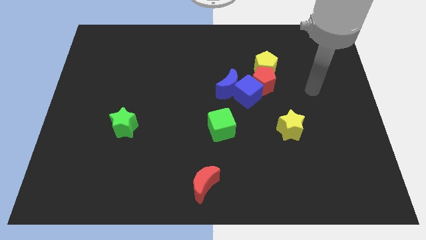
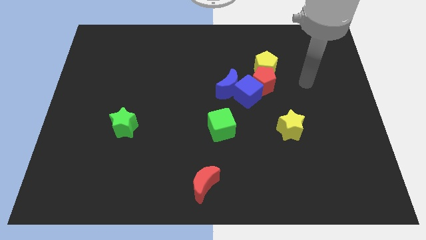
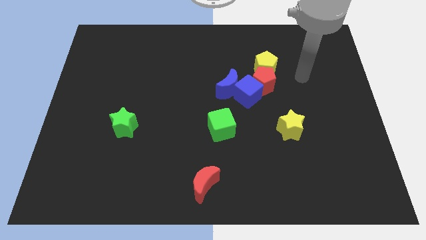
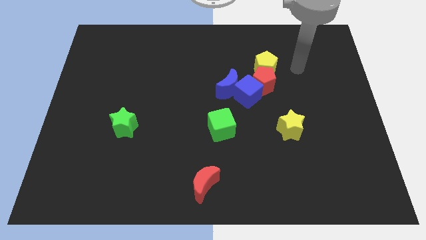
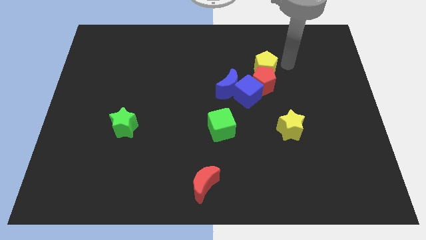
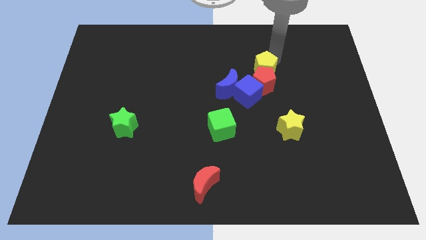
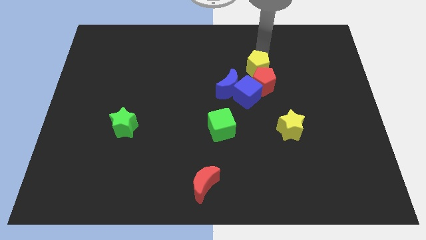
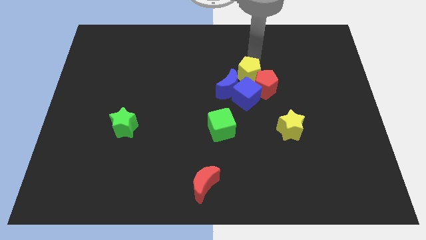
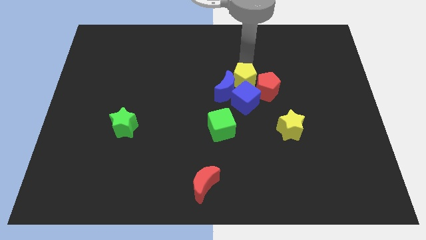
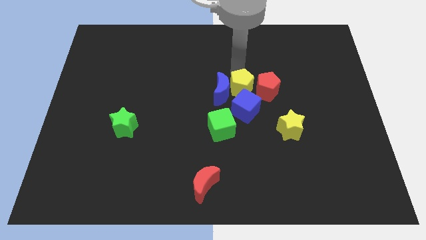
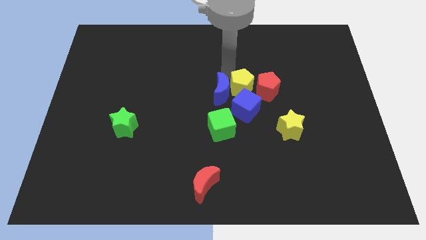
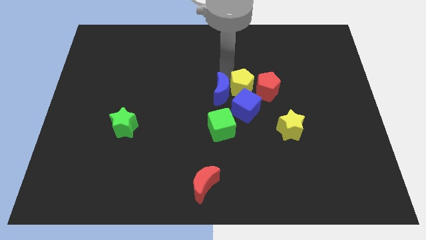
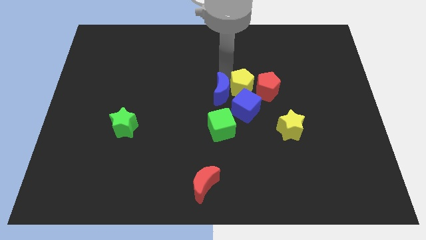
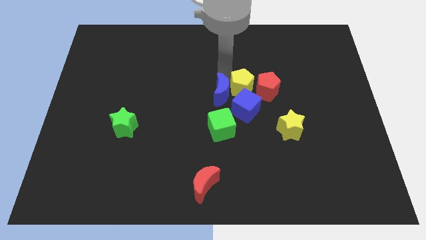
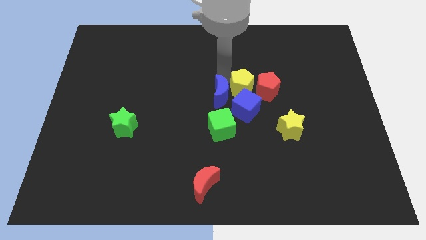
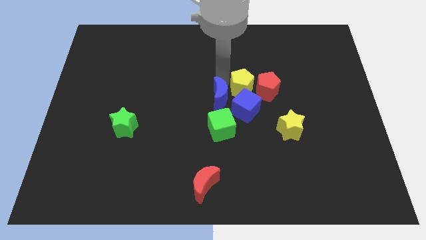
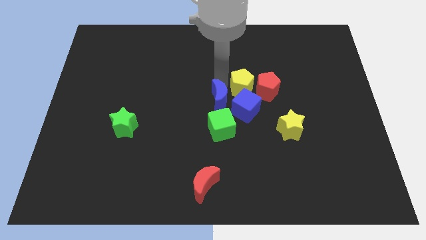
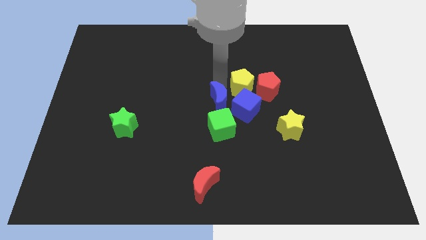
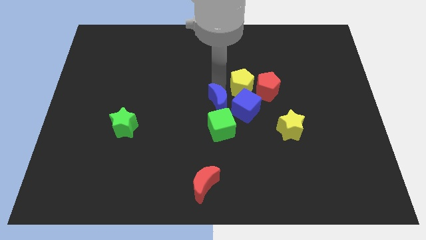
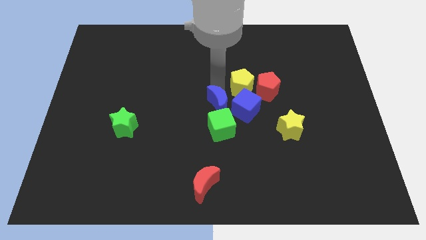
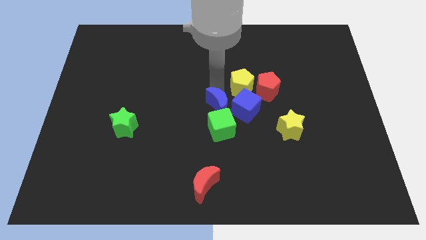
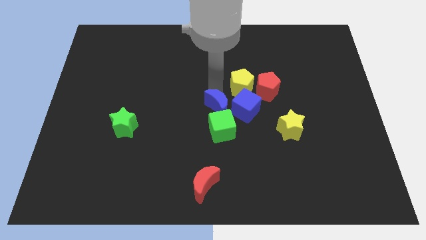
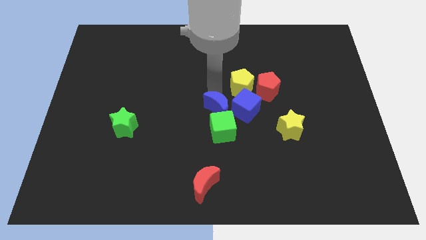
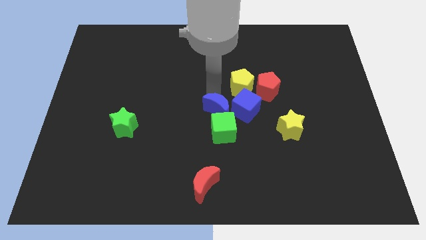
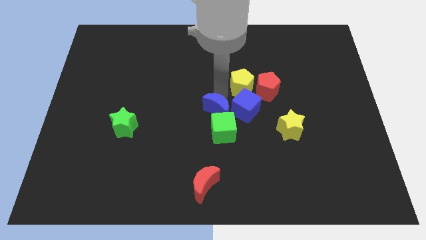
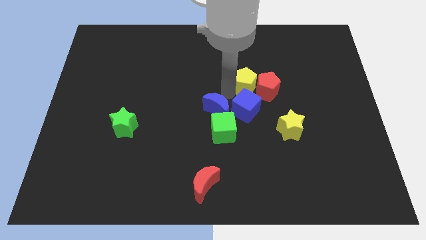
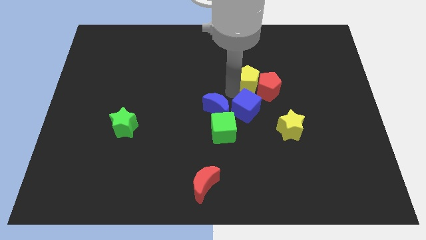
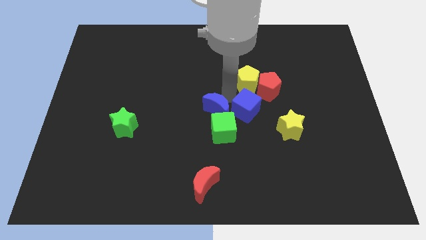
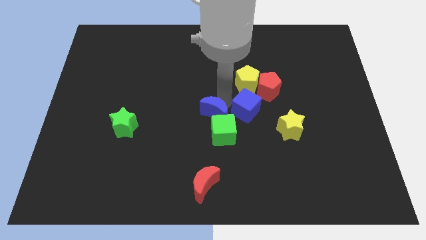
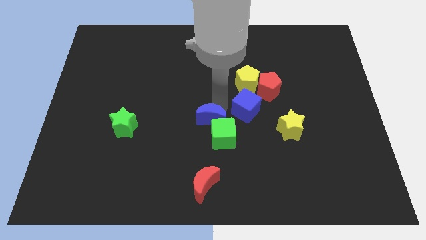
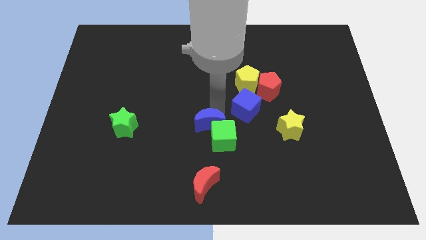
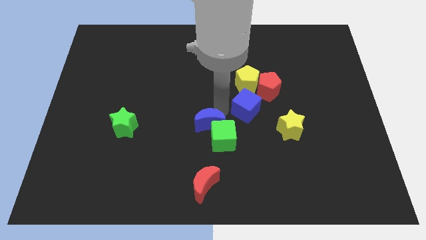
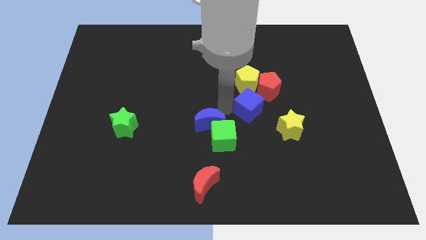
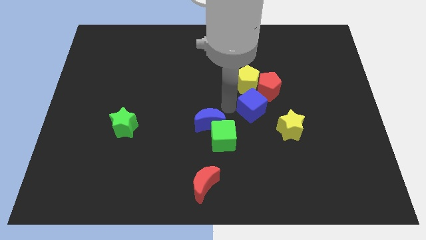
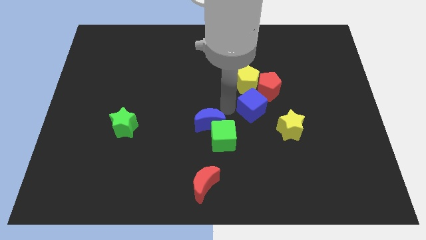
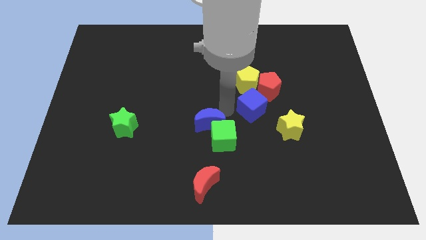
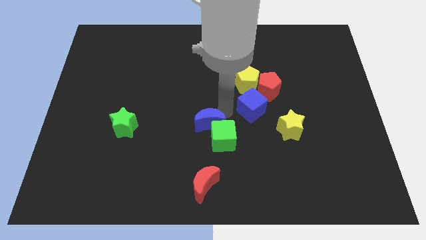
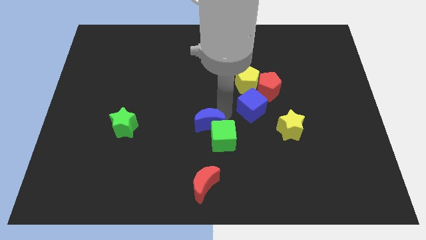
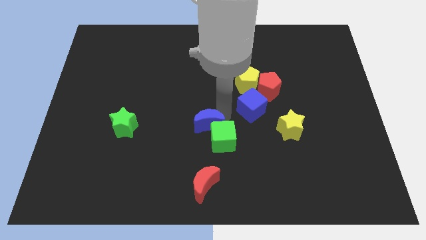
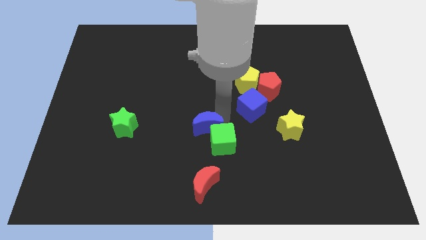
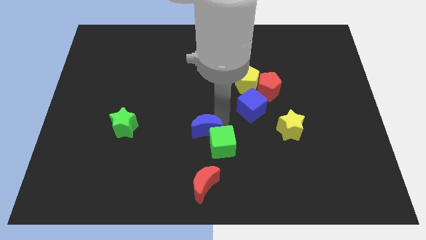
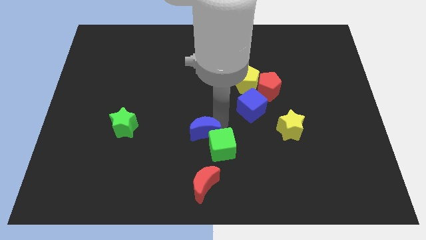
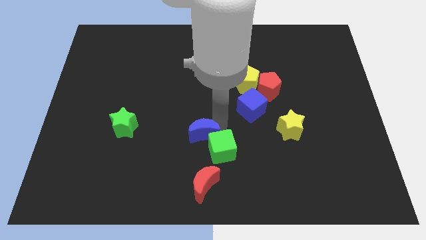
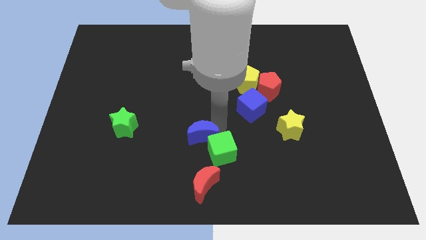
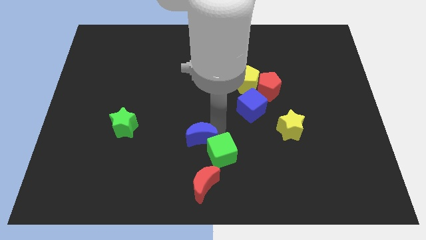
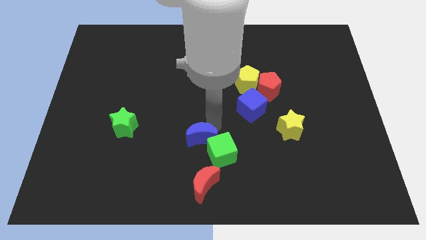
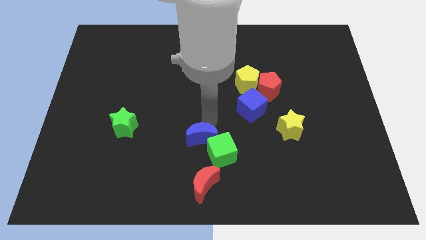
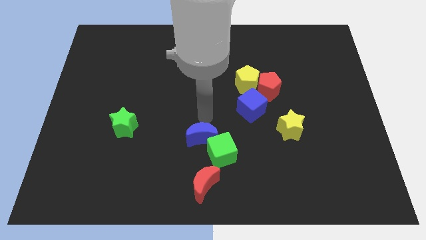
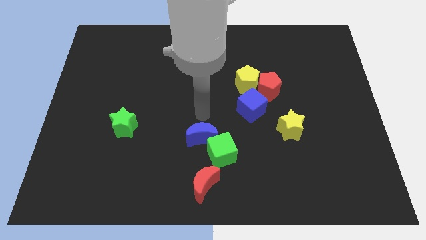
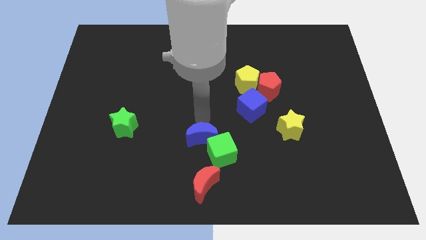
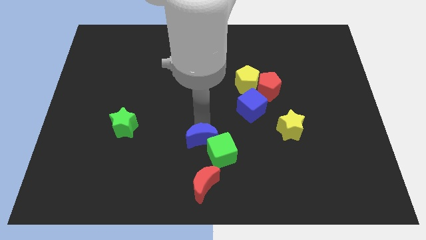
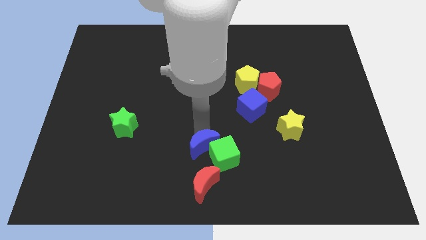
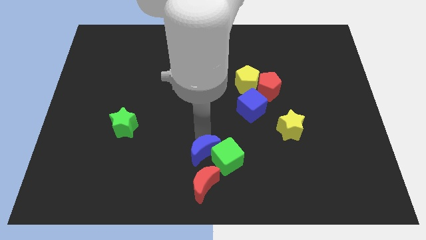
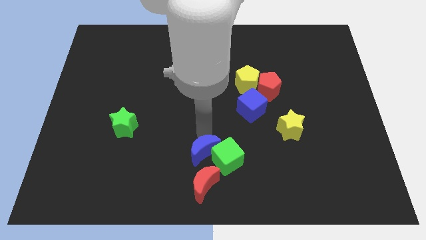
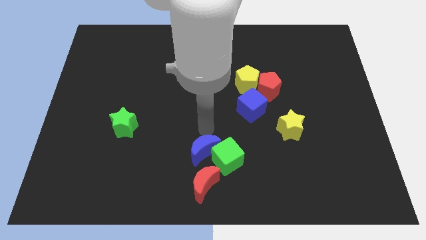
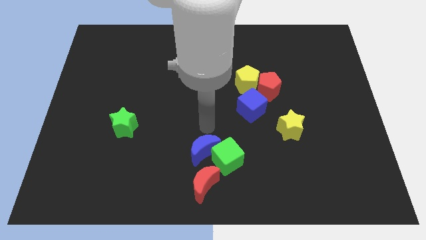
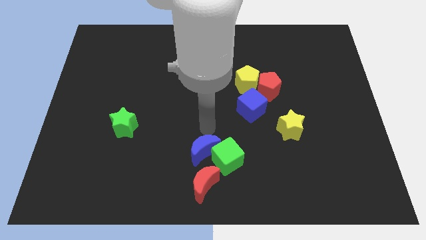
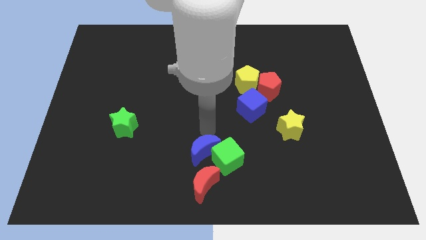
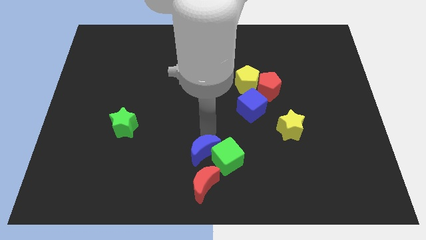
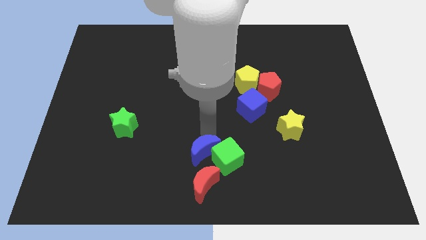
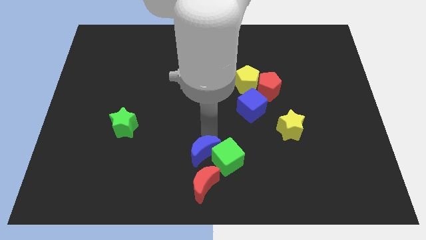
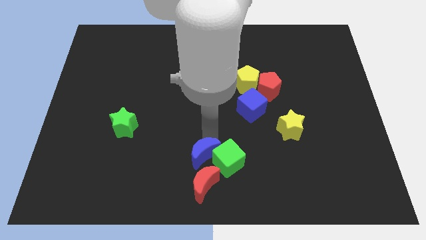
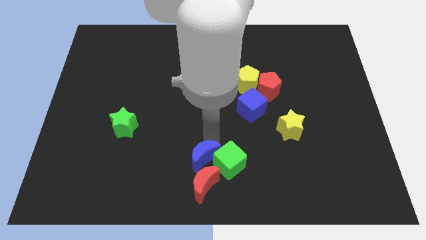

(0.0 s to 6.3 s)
slide the blue moon close to the red moon

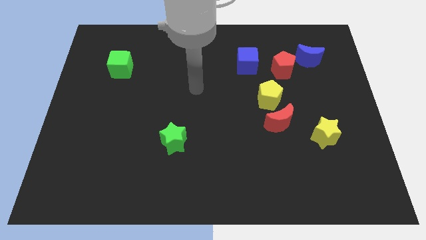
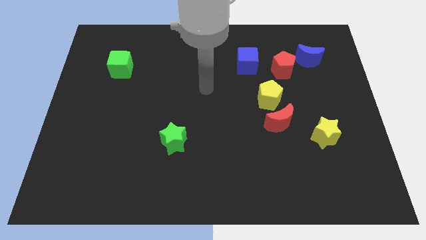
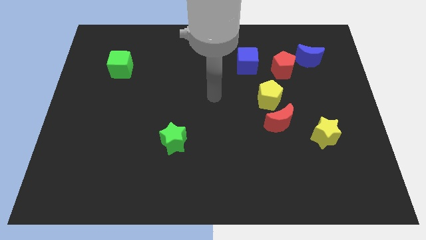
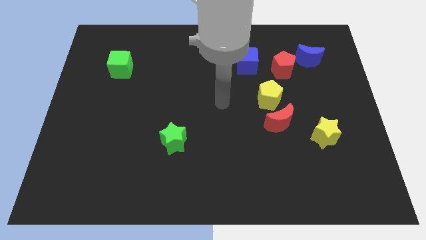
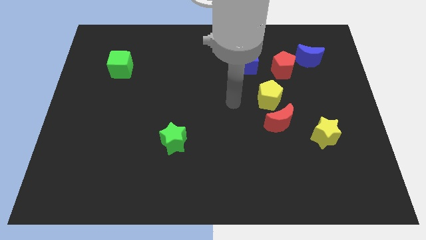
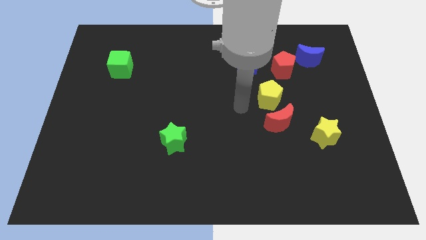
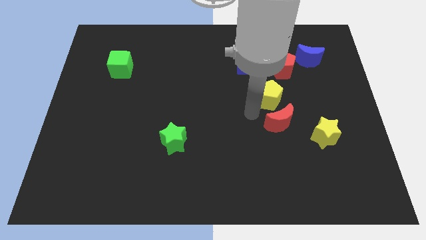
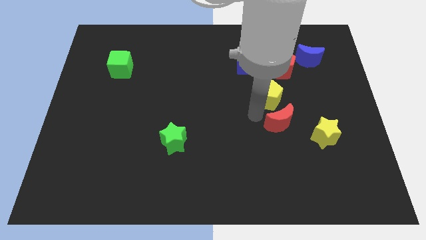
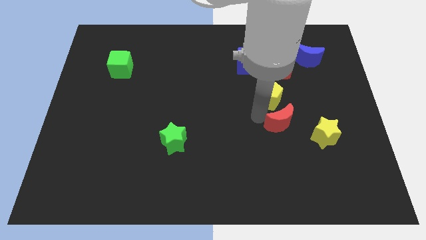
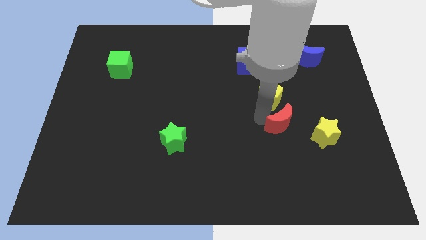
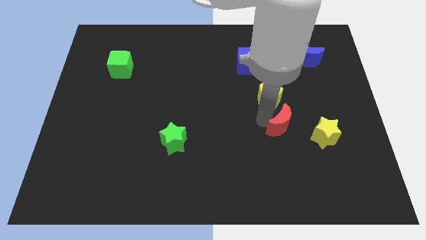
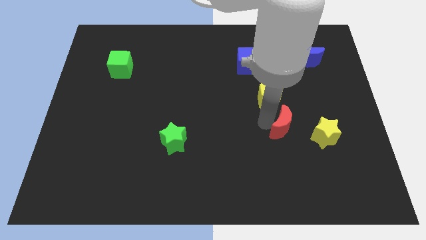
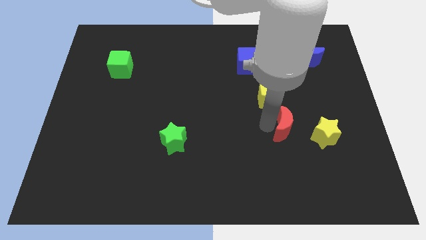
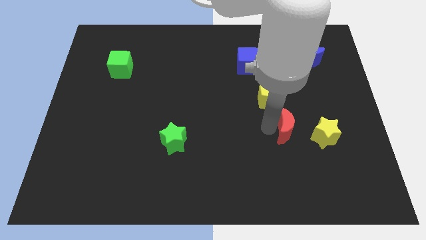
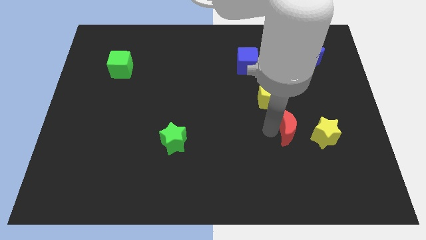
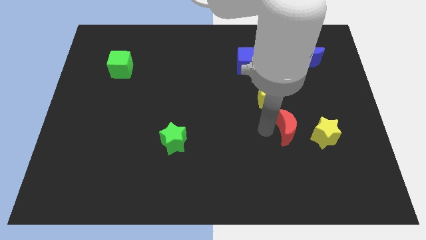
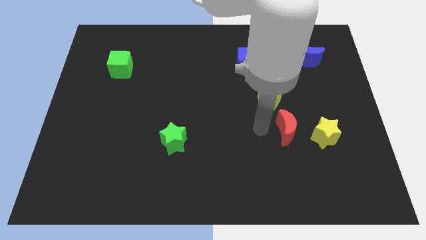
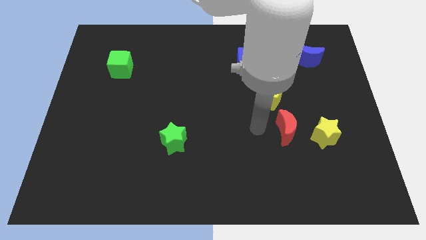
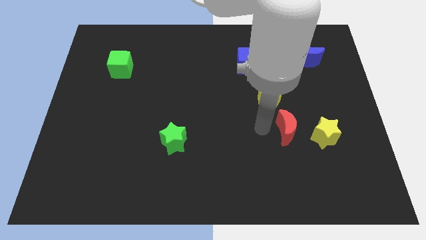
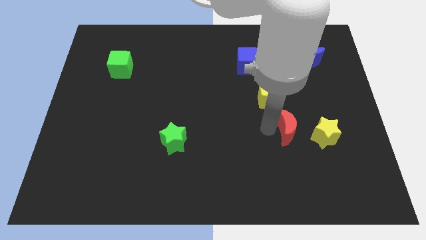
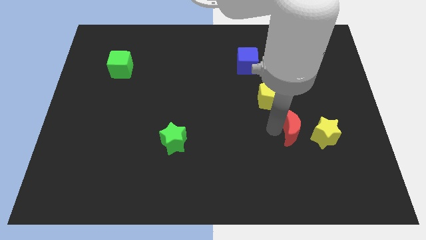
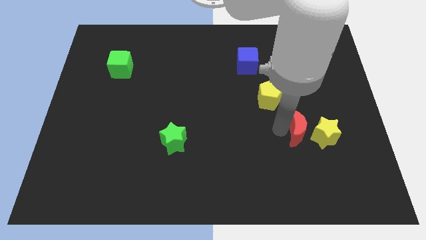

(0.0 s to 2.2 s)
slide the red moon towards the yellow star
